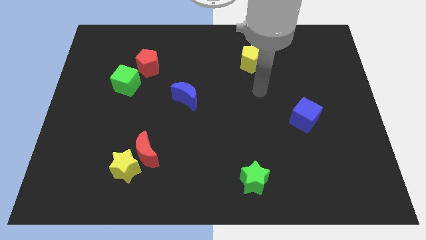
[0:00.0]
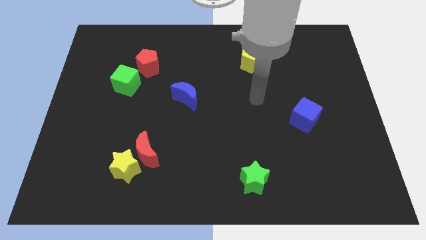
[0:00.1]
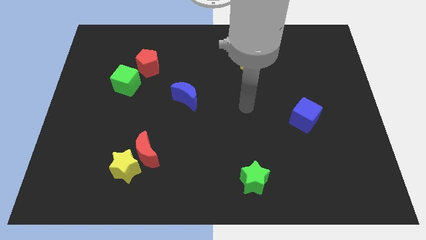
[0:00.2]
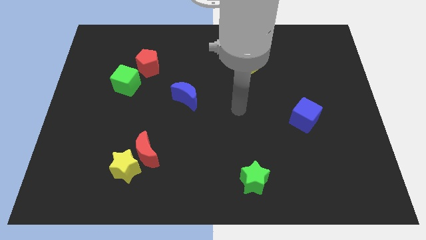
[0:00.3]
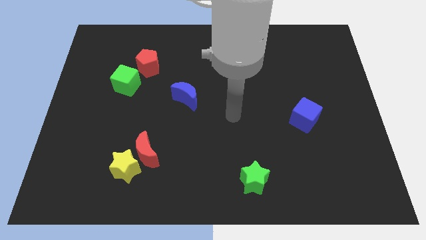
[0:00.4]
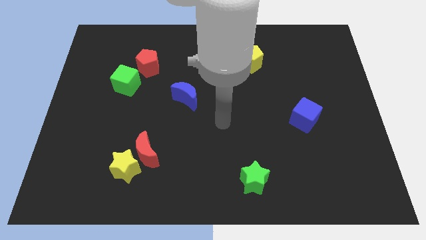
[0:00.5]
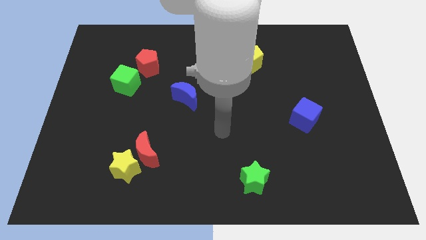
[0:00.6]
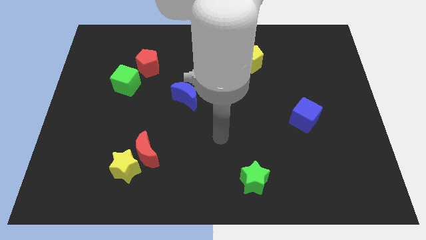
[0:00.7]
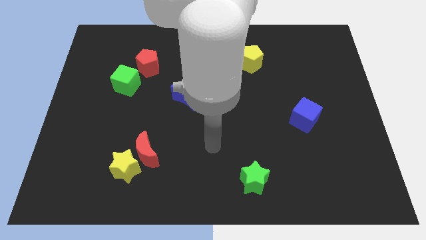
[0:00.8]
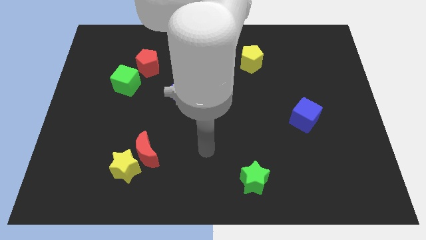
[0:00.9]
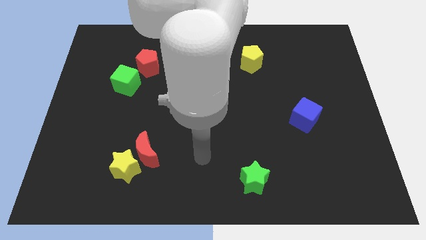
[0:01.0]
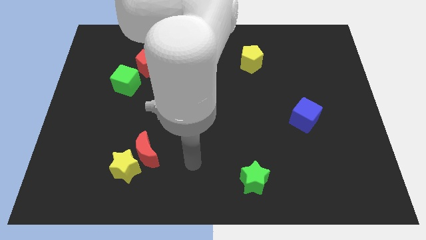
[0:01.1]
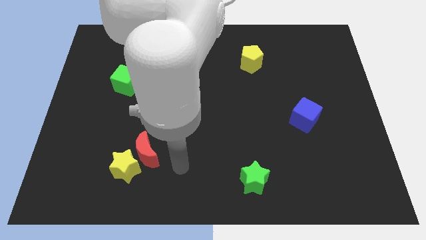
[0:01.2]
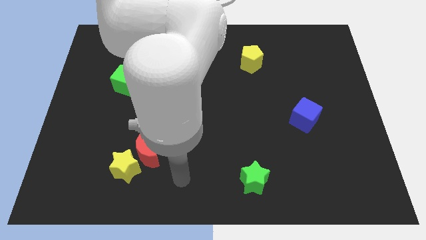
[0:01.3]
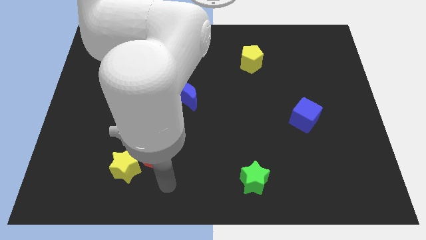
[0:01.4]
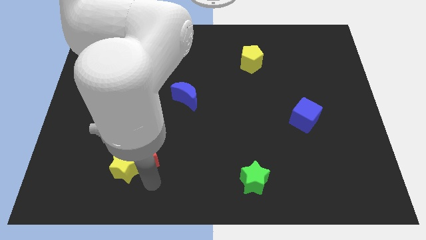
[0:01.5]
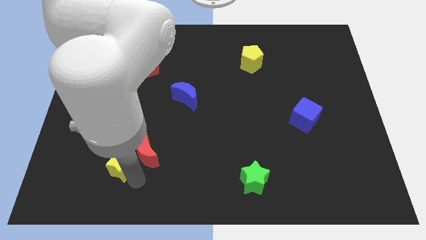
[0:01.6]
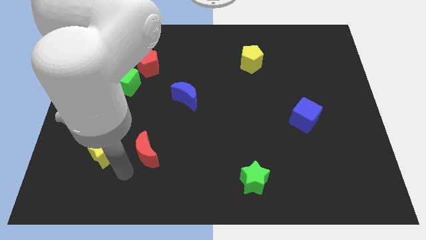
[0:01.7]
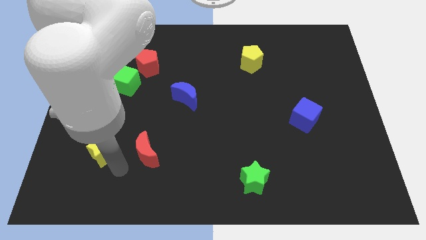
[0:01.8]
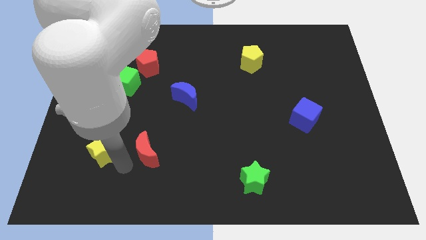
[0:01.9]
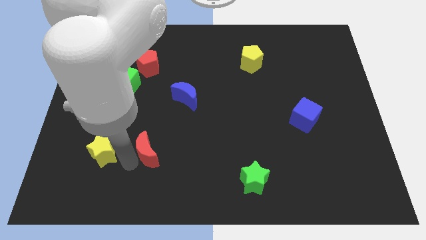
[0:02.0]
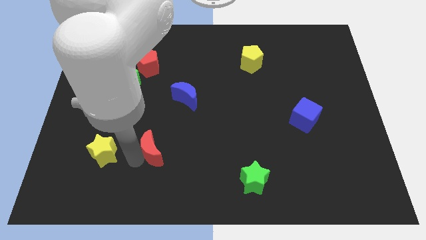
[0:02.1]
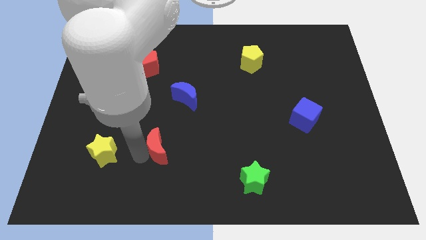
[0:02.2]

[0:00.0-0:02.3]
move the red moon away from the yellow star

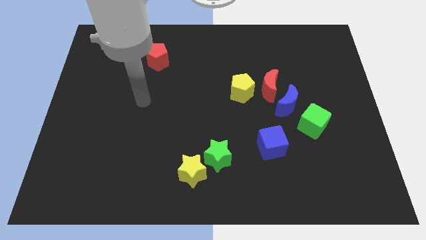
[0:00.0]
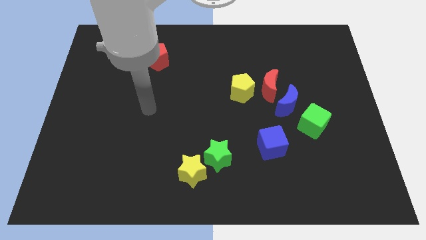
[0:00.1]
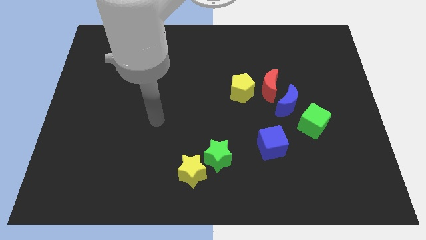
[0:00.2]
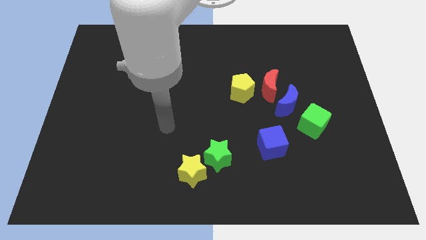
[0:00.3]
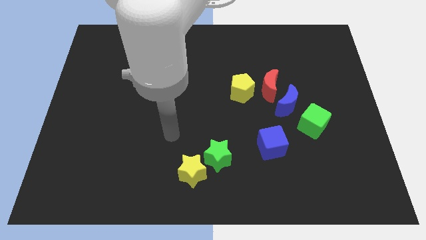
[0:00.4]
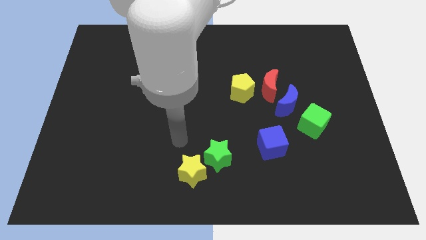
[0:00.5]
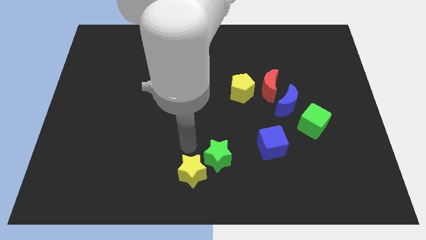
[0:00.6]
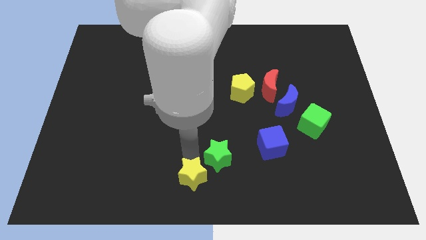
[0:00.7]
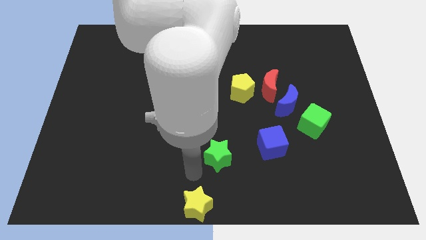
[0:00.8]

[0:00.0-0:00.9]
pull the green star apart from the yellow star

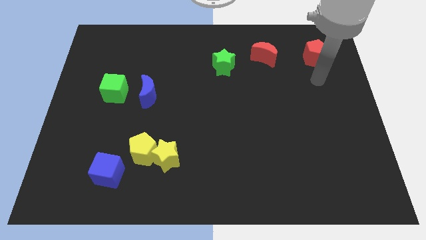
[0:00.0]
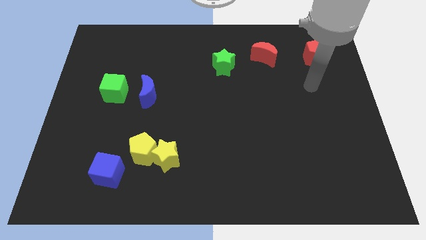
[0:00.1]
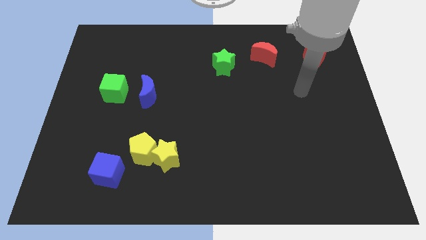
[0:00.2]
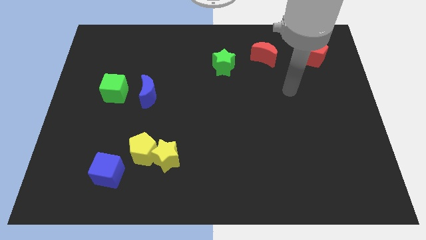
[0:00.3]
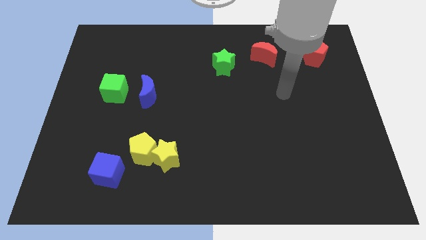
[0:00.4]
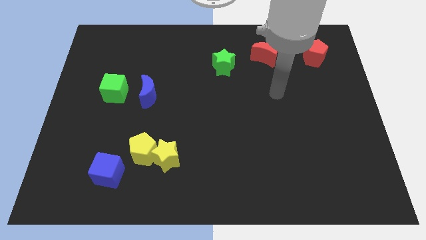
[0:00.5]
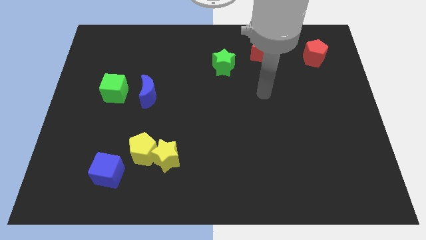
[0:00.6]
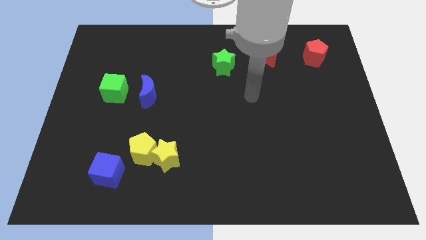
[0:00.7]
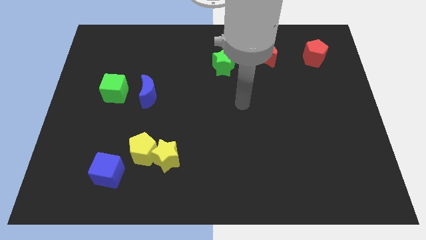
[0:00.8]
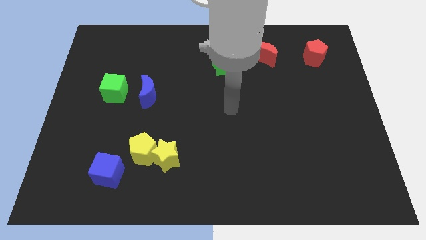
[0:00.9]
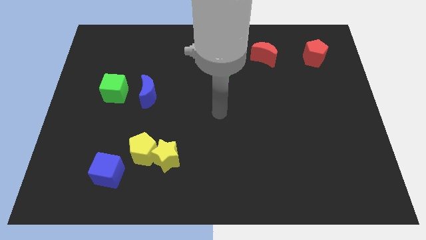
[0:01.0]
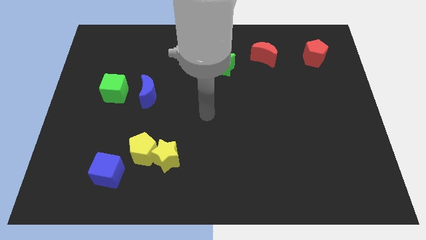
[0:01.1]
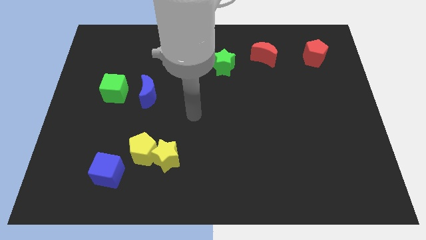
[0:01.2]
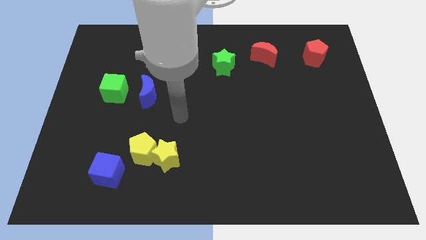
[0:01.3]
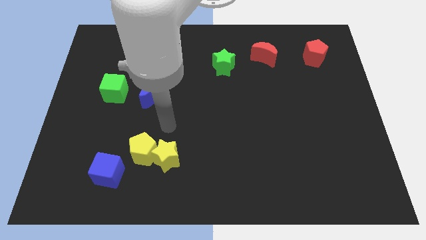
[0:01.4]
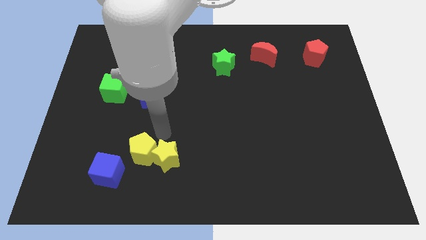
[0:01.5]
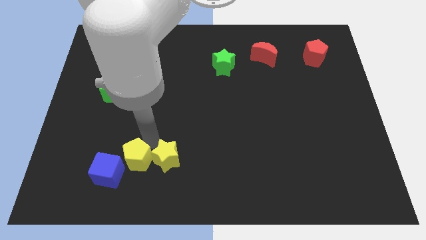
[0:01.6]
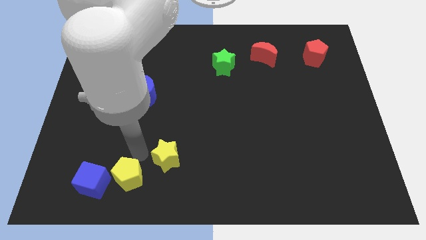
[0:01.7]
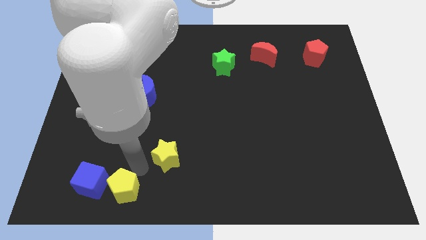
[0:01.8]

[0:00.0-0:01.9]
move the yellow star away from the yellow pentagon

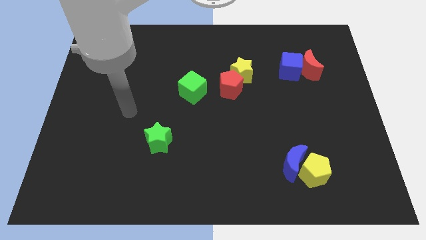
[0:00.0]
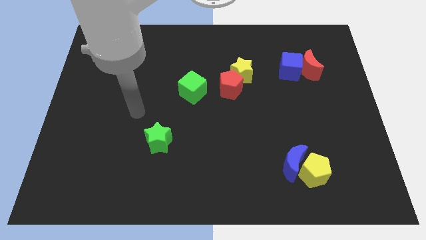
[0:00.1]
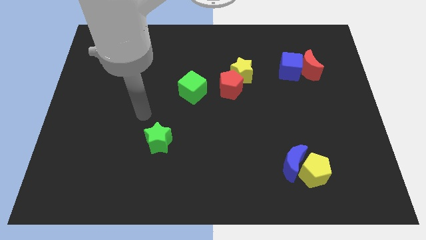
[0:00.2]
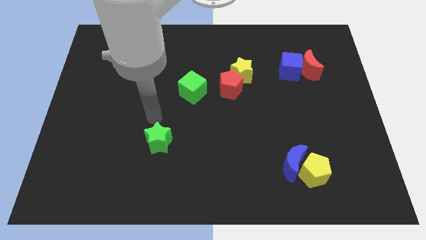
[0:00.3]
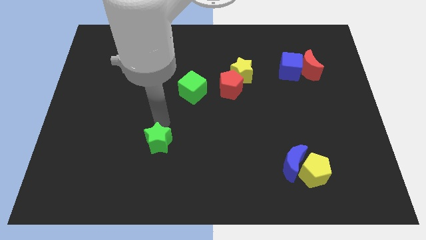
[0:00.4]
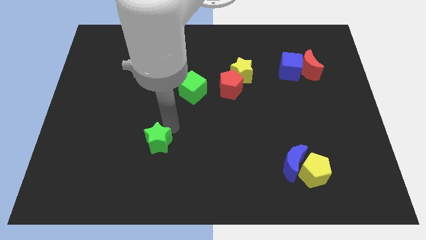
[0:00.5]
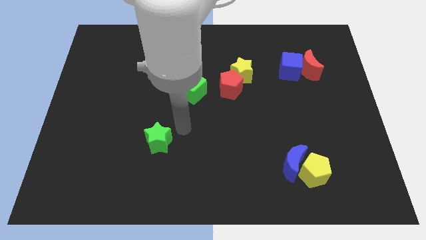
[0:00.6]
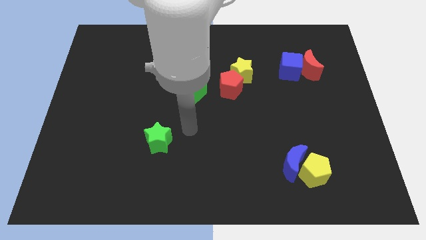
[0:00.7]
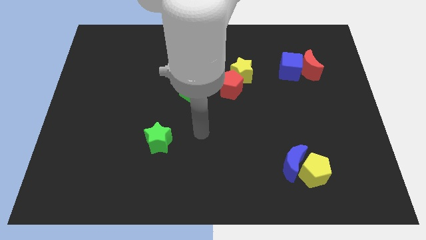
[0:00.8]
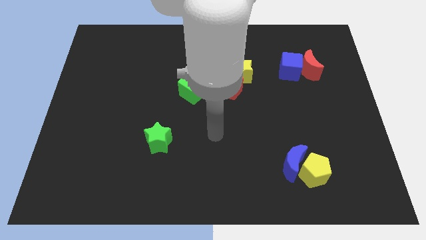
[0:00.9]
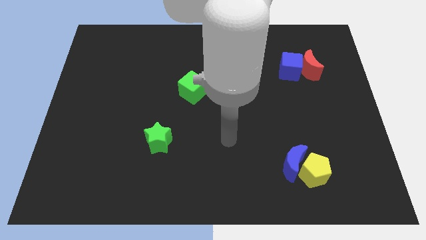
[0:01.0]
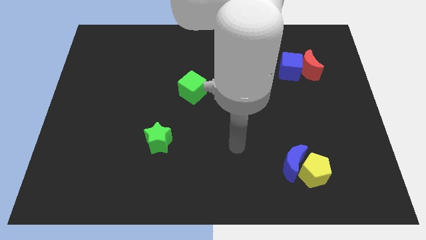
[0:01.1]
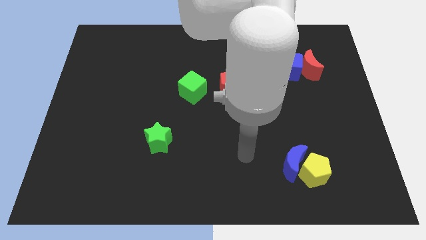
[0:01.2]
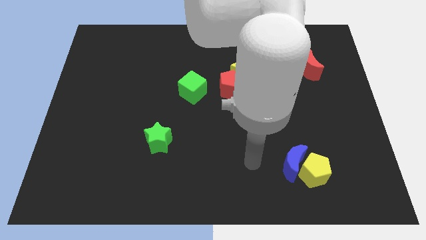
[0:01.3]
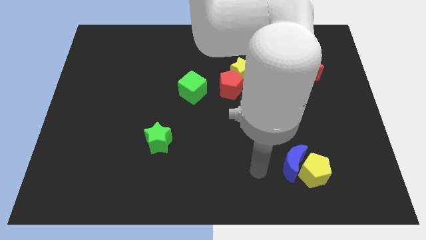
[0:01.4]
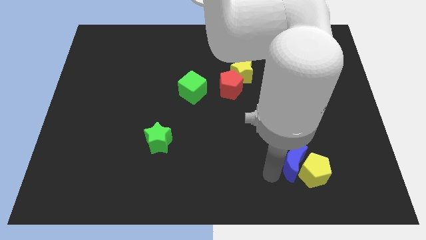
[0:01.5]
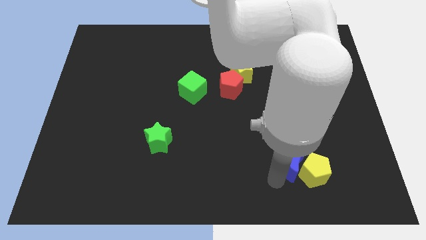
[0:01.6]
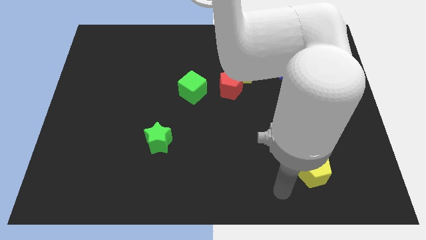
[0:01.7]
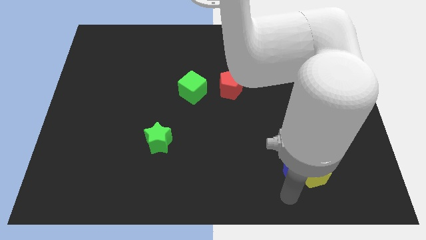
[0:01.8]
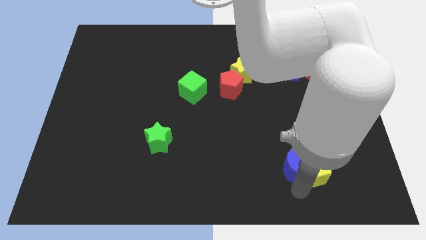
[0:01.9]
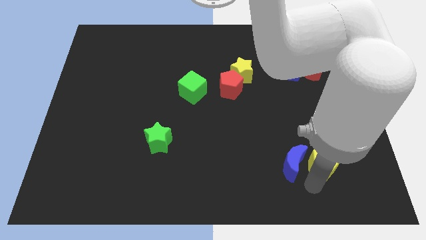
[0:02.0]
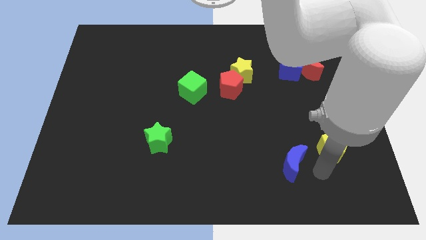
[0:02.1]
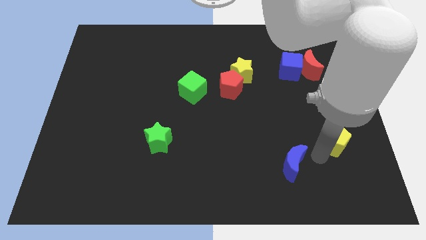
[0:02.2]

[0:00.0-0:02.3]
pull the blue moon apart from the yellow pentagon

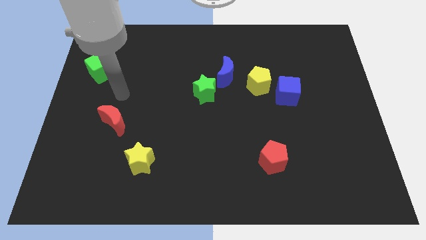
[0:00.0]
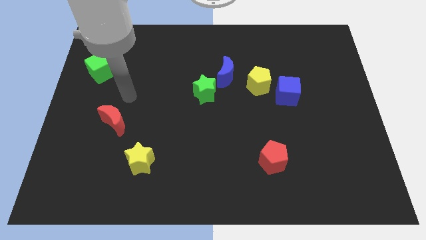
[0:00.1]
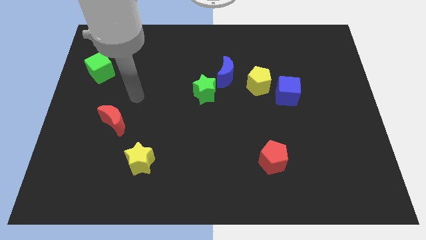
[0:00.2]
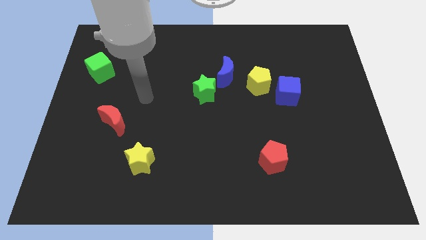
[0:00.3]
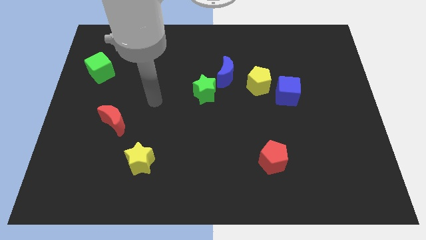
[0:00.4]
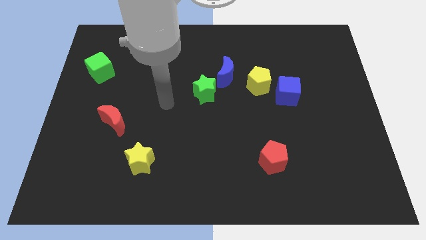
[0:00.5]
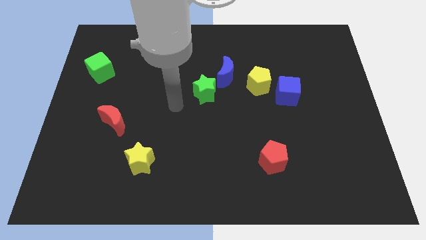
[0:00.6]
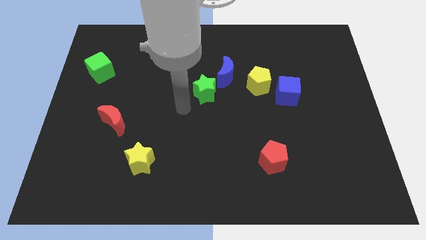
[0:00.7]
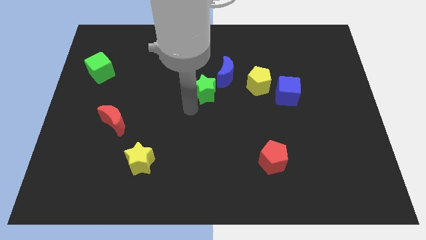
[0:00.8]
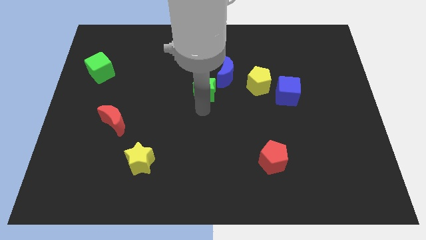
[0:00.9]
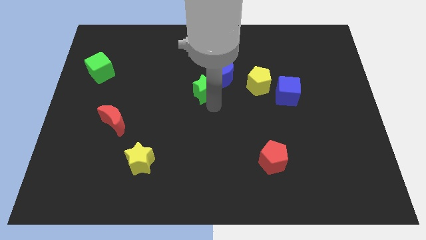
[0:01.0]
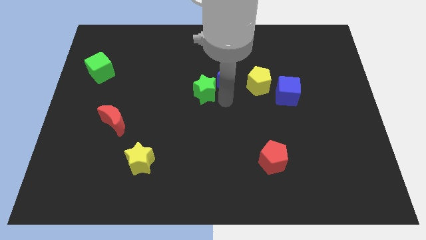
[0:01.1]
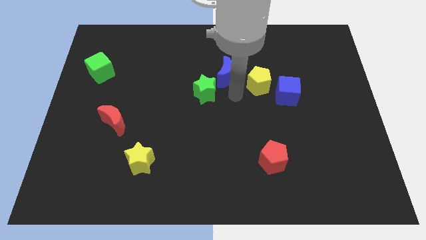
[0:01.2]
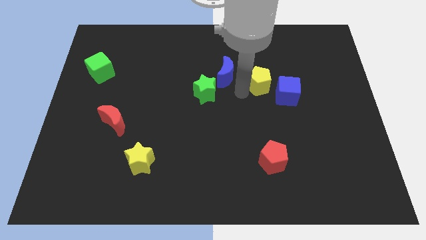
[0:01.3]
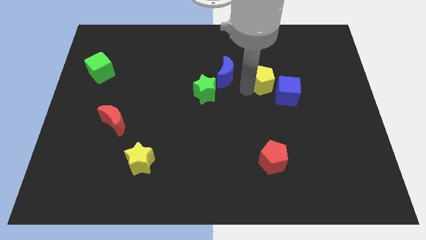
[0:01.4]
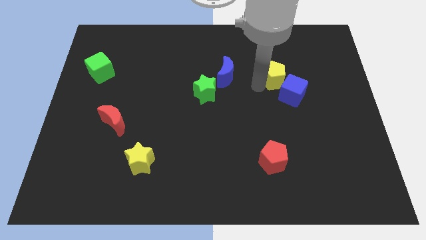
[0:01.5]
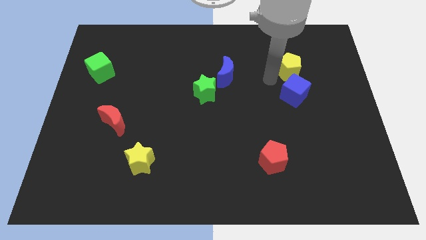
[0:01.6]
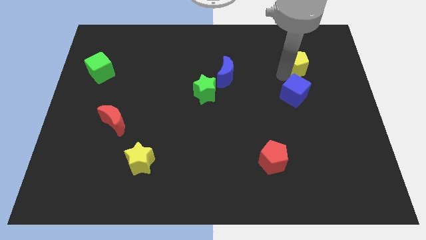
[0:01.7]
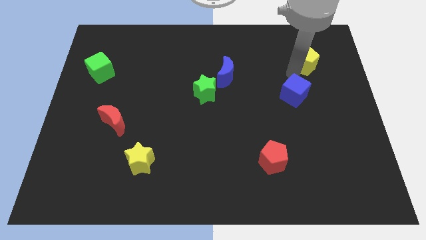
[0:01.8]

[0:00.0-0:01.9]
pull the blue cube apart from the yellow pentagon
